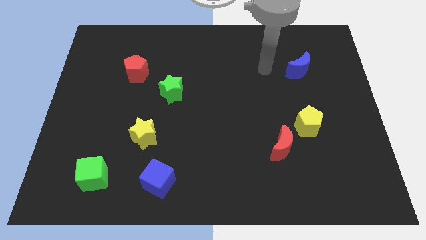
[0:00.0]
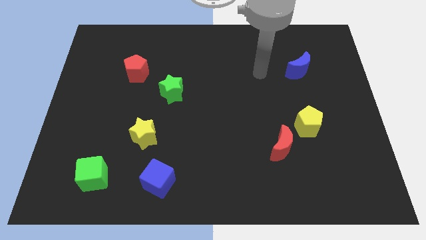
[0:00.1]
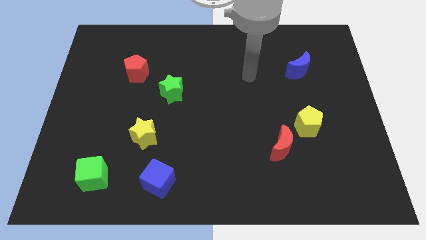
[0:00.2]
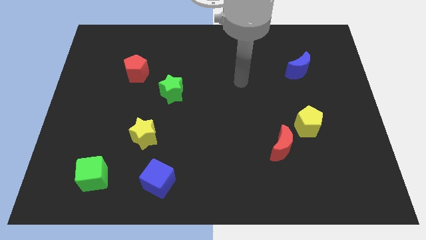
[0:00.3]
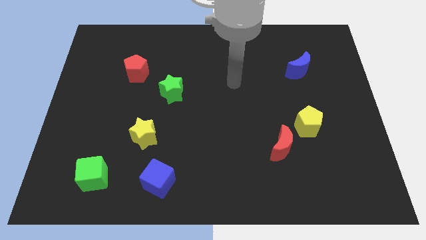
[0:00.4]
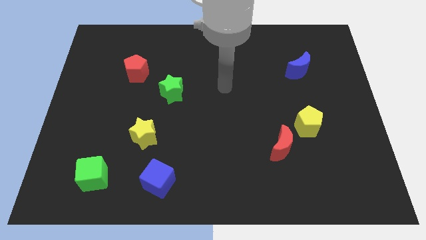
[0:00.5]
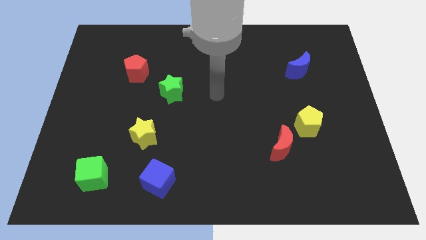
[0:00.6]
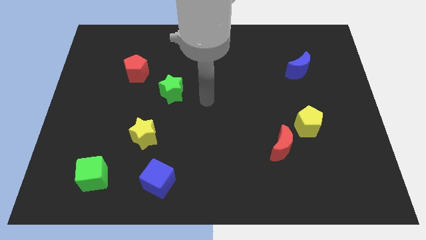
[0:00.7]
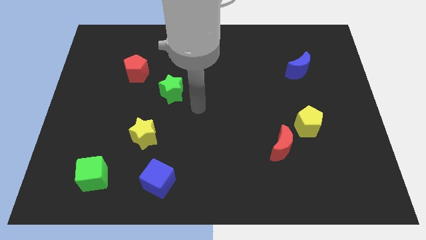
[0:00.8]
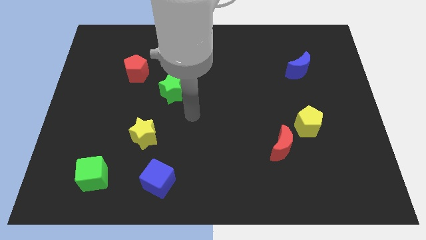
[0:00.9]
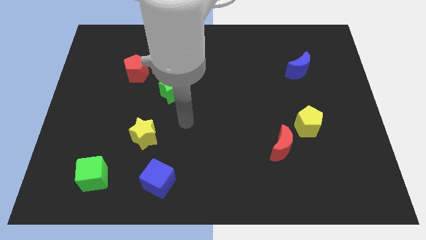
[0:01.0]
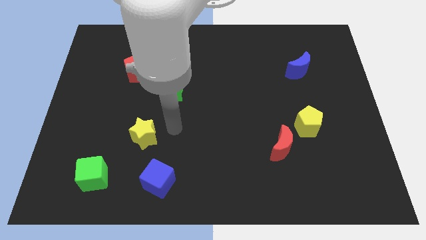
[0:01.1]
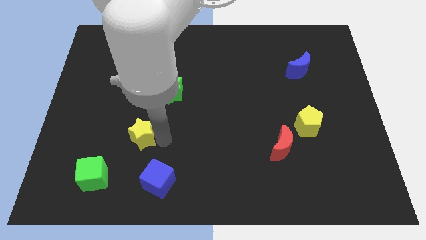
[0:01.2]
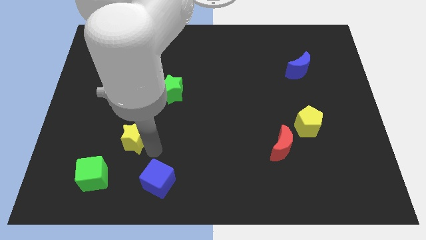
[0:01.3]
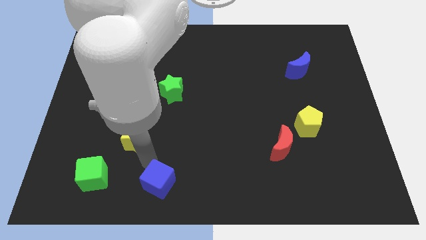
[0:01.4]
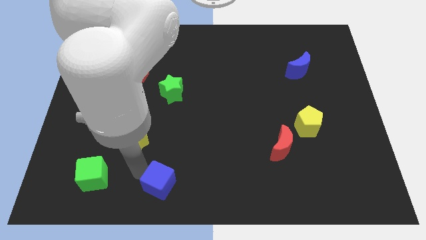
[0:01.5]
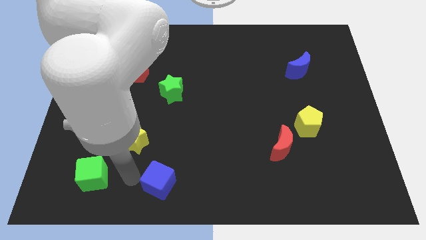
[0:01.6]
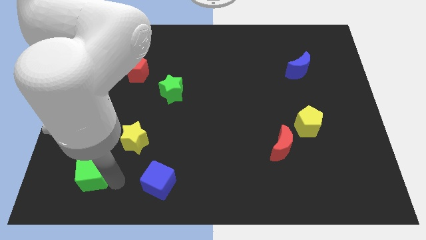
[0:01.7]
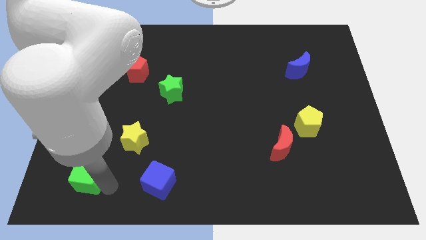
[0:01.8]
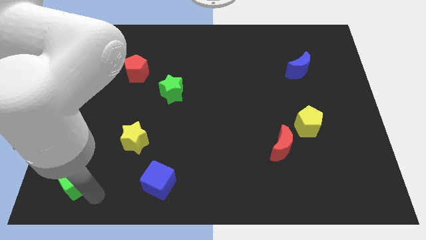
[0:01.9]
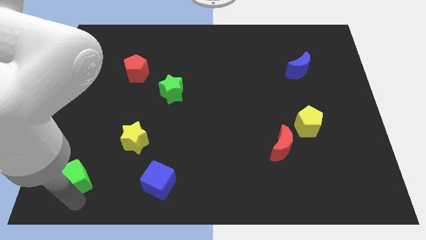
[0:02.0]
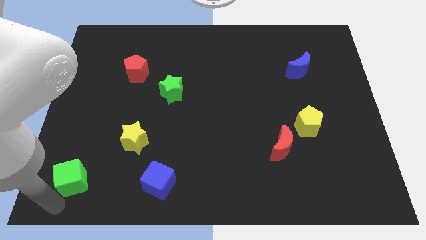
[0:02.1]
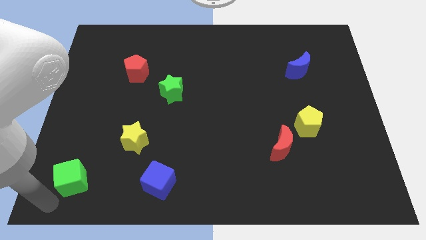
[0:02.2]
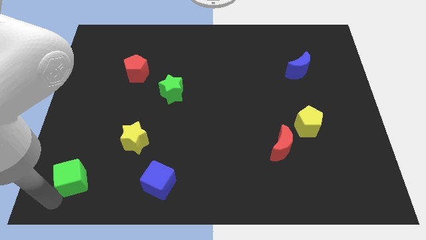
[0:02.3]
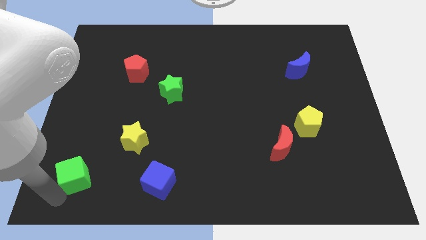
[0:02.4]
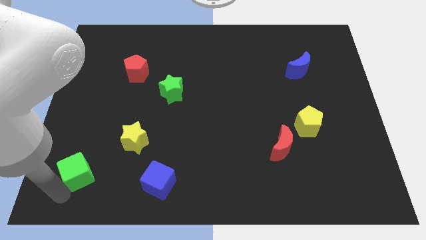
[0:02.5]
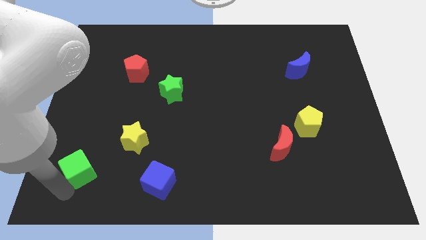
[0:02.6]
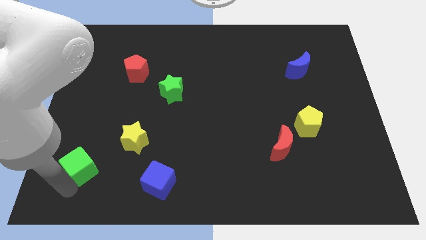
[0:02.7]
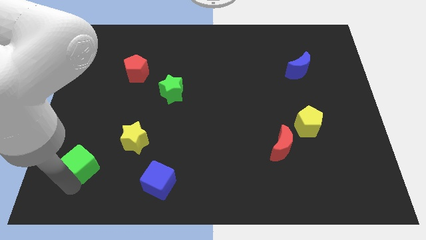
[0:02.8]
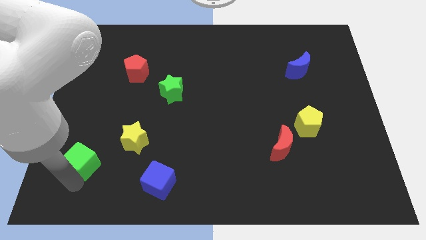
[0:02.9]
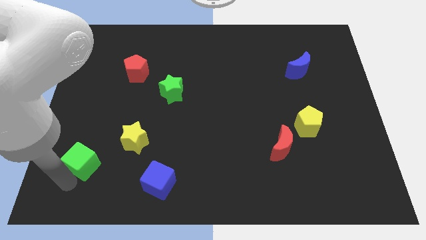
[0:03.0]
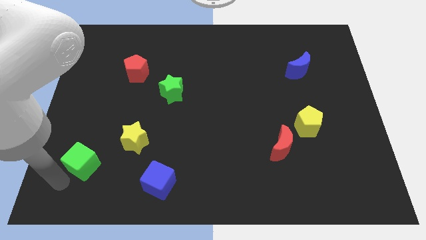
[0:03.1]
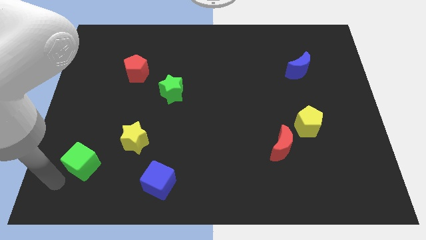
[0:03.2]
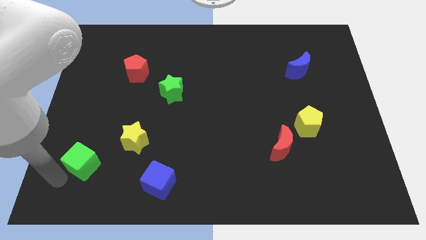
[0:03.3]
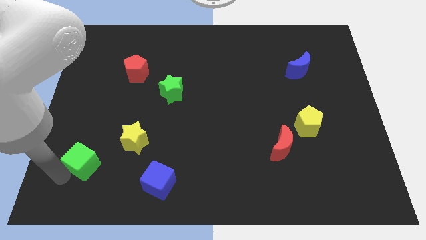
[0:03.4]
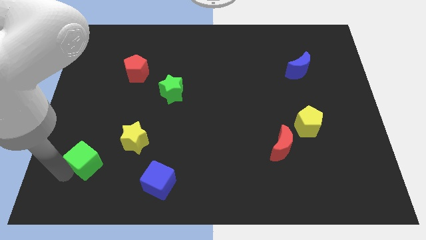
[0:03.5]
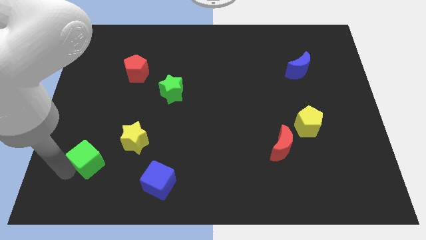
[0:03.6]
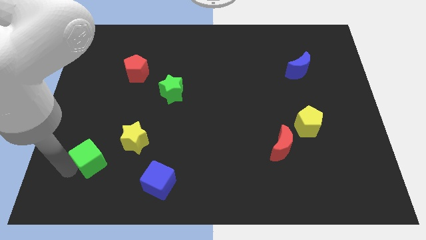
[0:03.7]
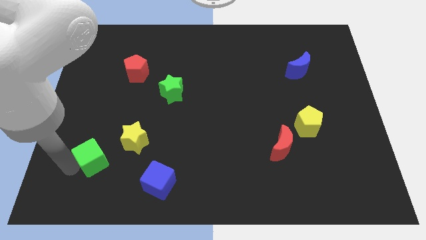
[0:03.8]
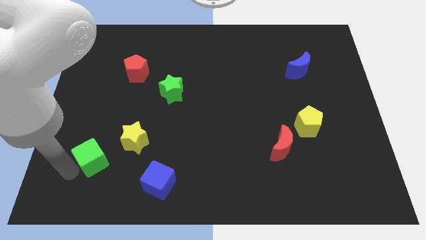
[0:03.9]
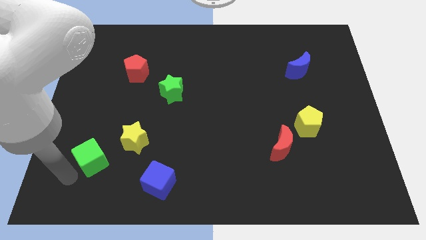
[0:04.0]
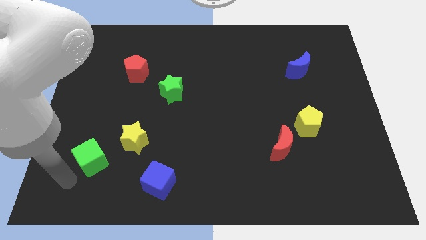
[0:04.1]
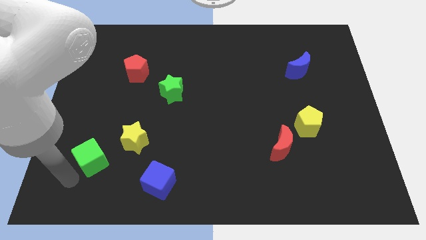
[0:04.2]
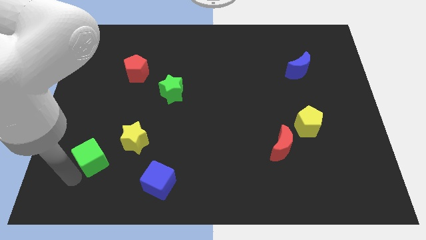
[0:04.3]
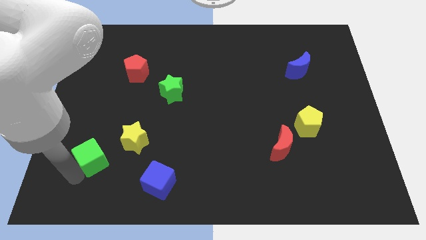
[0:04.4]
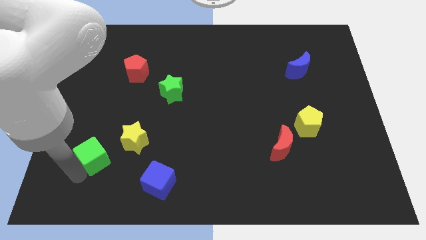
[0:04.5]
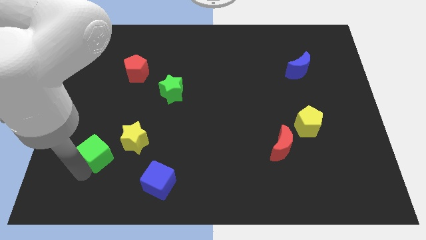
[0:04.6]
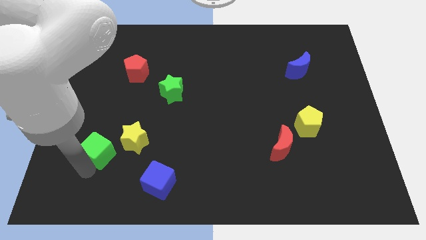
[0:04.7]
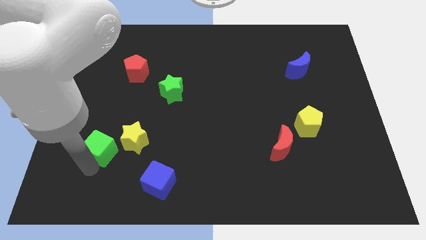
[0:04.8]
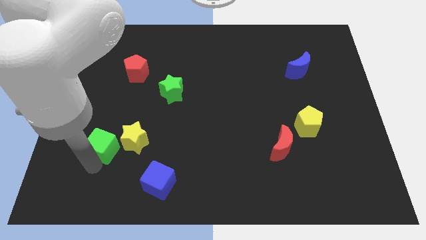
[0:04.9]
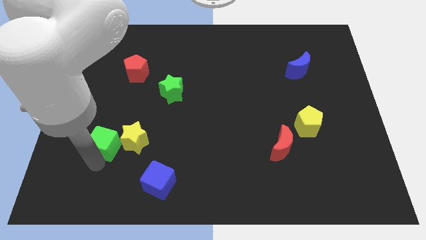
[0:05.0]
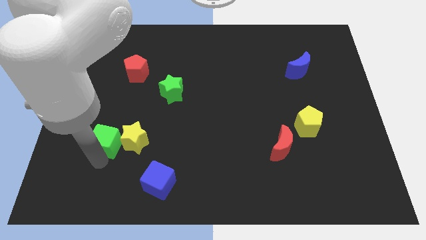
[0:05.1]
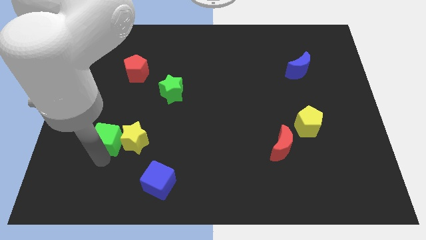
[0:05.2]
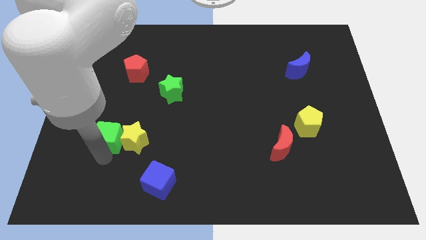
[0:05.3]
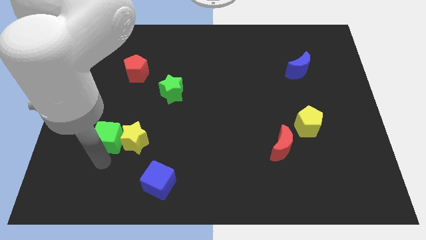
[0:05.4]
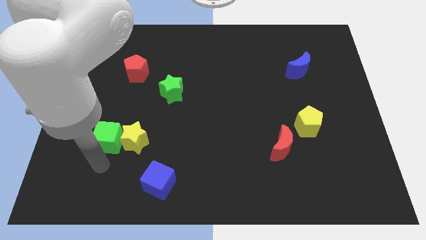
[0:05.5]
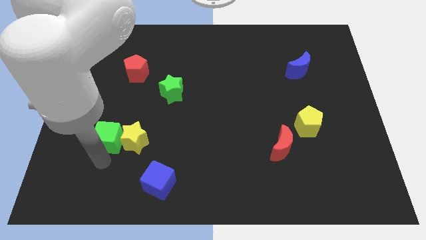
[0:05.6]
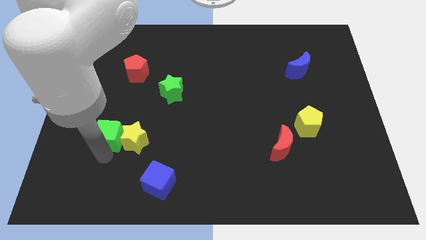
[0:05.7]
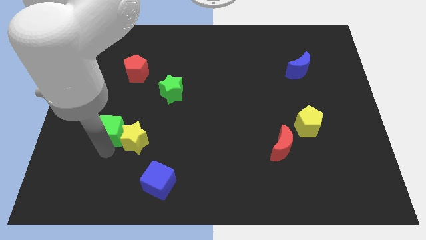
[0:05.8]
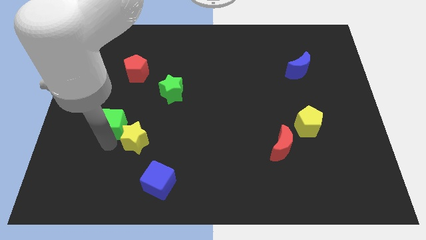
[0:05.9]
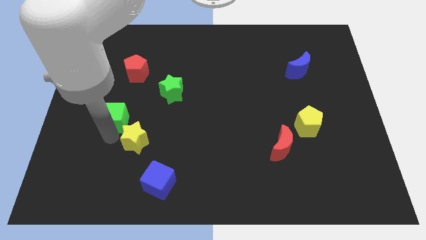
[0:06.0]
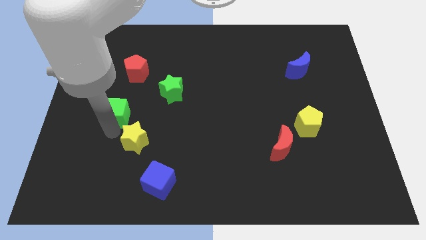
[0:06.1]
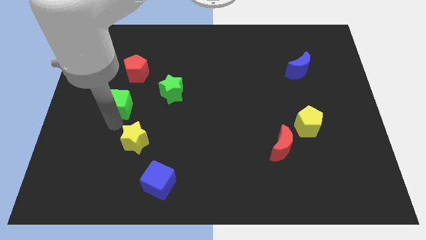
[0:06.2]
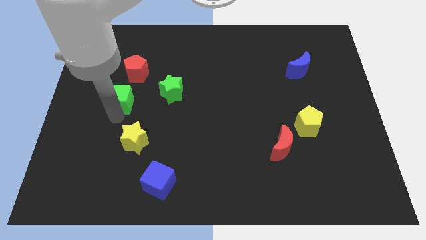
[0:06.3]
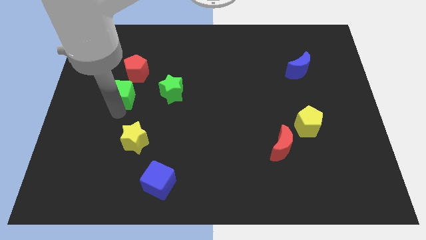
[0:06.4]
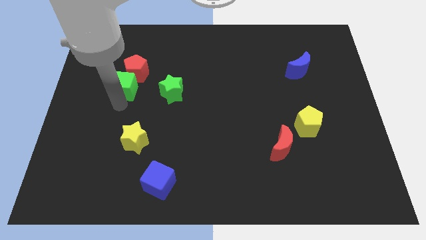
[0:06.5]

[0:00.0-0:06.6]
push the green cube close to the red pentagon
